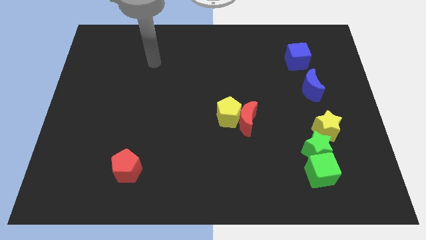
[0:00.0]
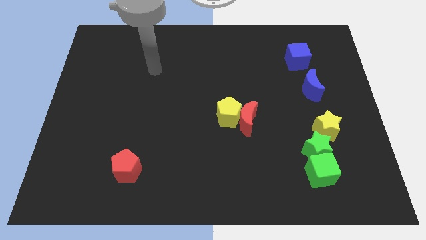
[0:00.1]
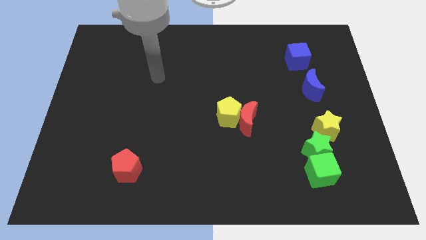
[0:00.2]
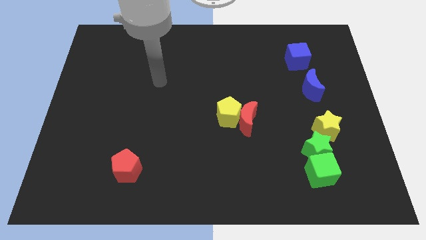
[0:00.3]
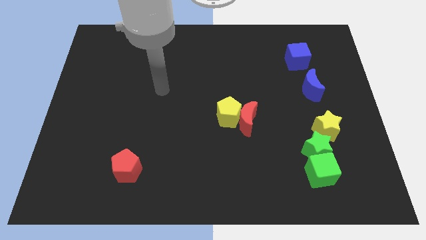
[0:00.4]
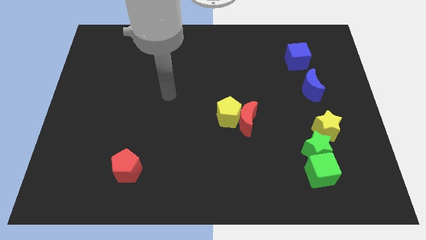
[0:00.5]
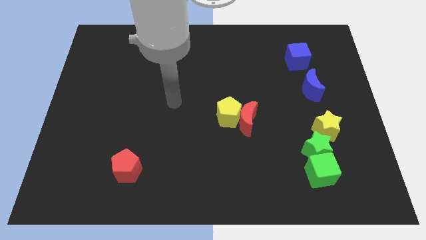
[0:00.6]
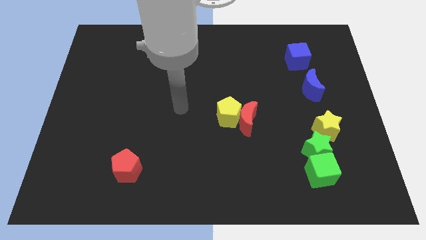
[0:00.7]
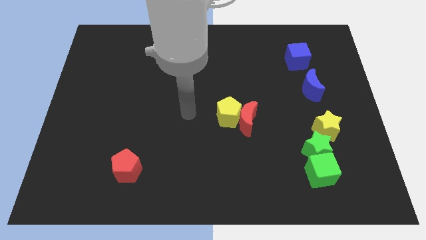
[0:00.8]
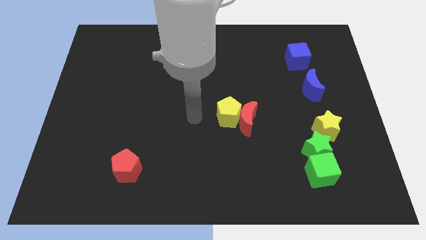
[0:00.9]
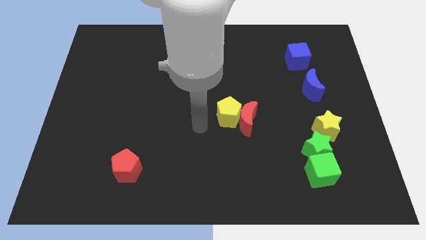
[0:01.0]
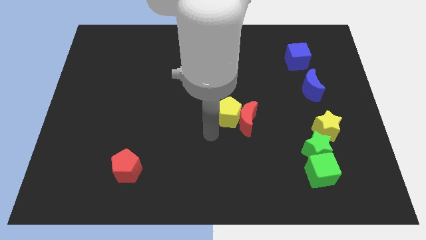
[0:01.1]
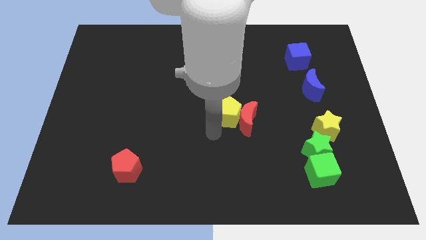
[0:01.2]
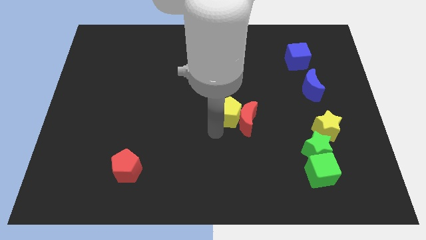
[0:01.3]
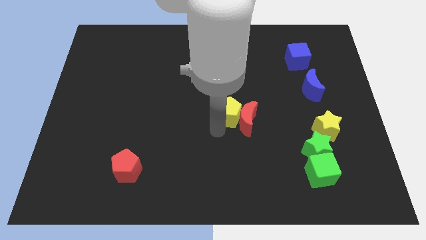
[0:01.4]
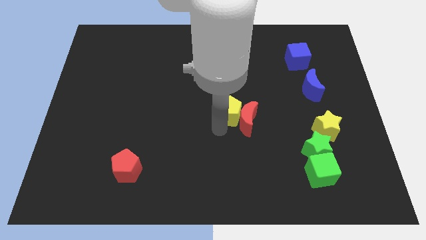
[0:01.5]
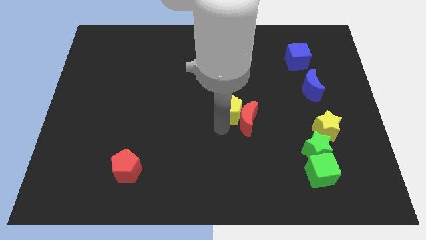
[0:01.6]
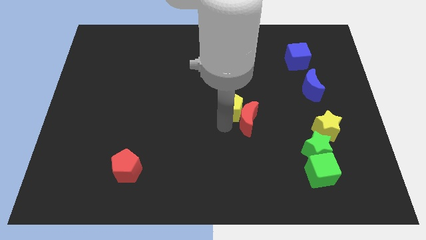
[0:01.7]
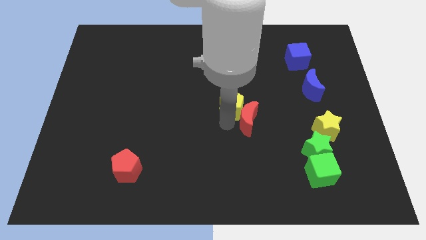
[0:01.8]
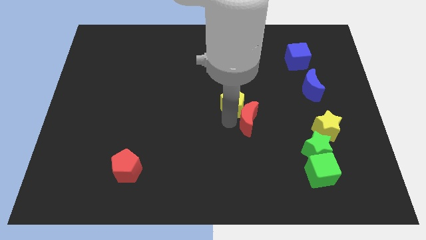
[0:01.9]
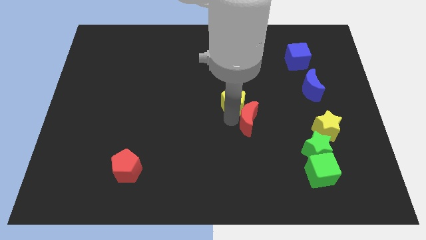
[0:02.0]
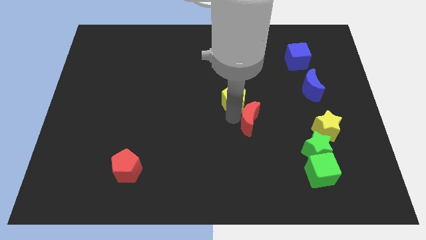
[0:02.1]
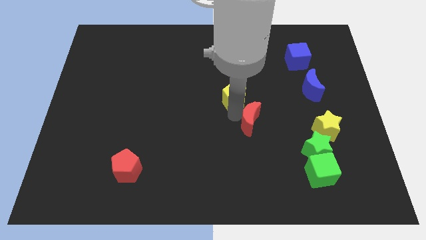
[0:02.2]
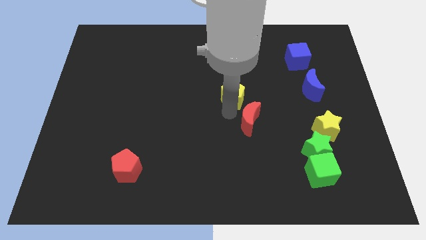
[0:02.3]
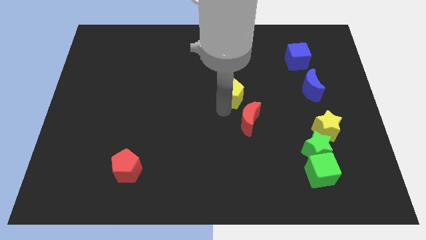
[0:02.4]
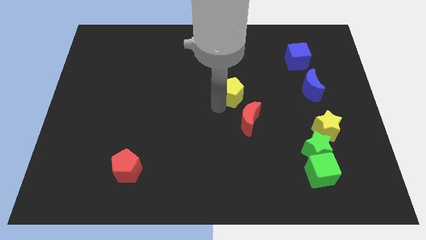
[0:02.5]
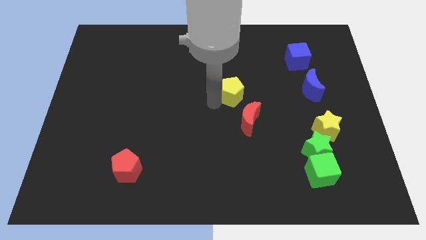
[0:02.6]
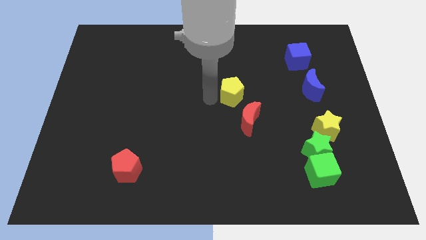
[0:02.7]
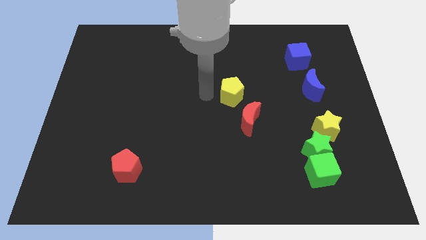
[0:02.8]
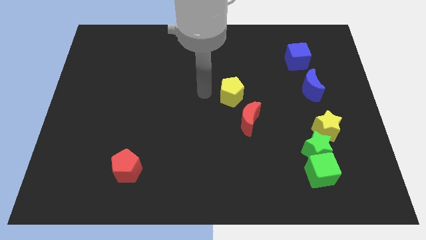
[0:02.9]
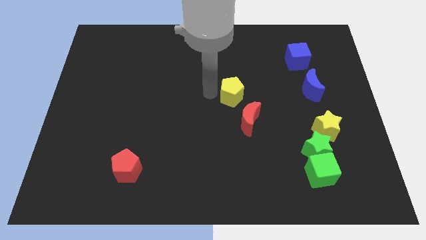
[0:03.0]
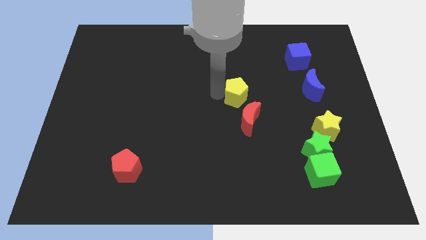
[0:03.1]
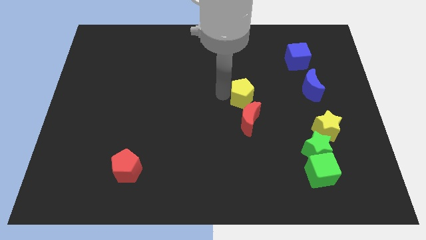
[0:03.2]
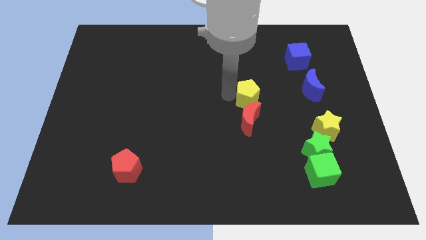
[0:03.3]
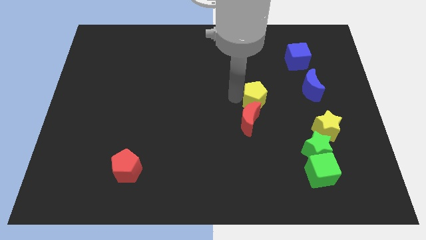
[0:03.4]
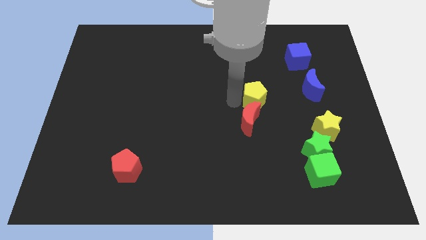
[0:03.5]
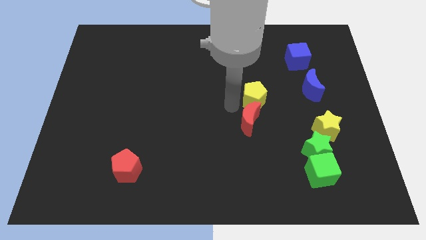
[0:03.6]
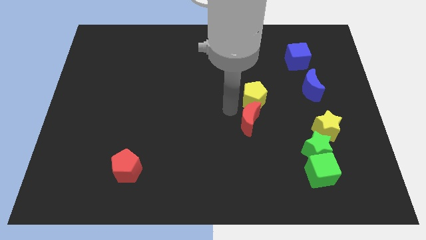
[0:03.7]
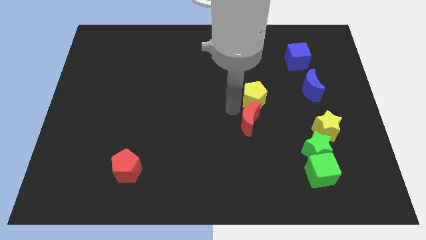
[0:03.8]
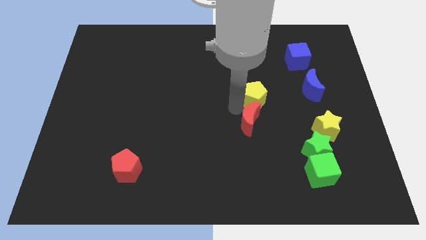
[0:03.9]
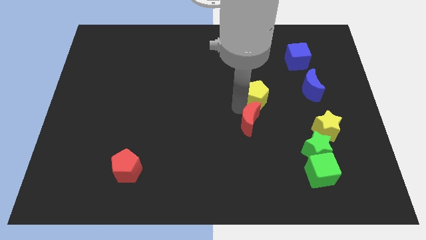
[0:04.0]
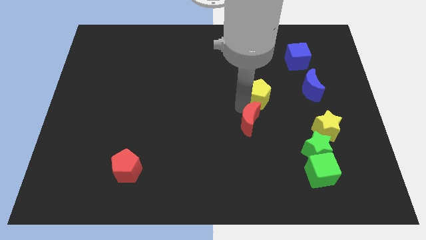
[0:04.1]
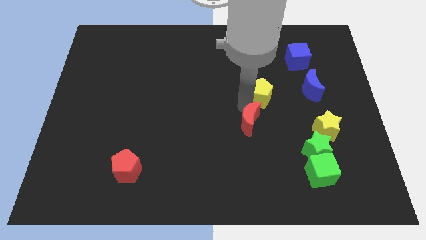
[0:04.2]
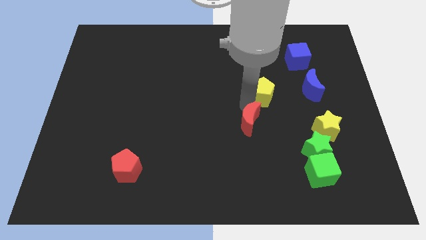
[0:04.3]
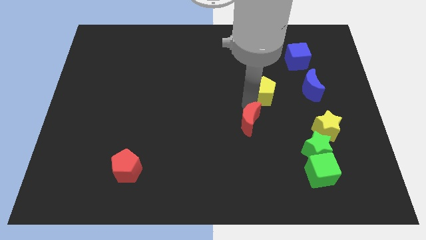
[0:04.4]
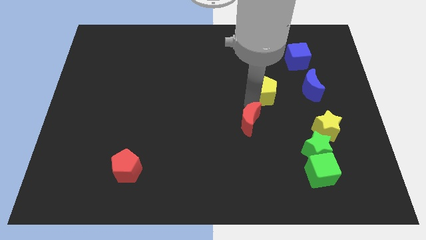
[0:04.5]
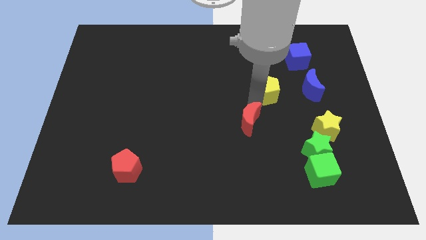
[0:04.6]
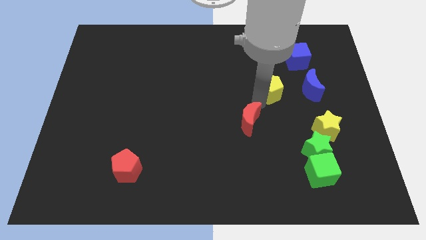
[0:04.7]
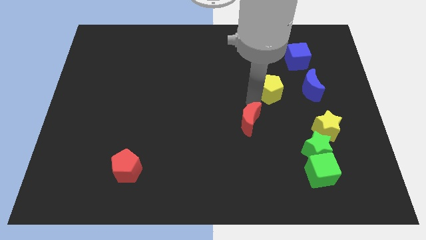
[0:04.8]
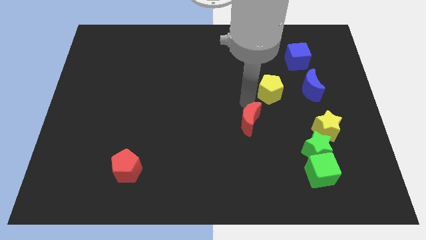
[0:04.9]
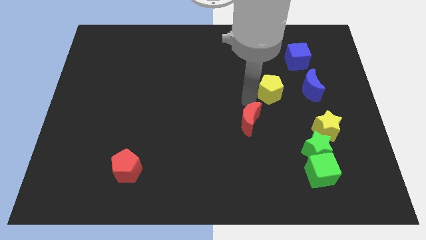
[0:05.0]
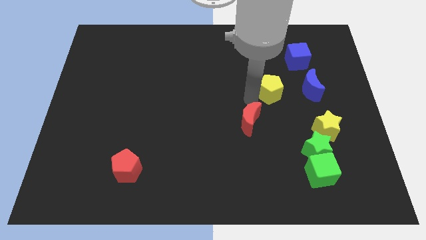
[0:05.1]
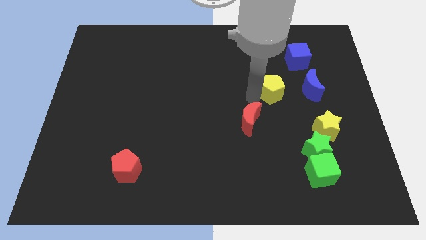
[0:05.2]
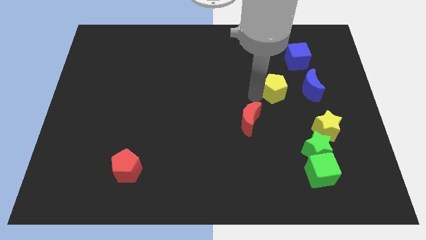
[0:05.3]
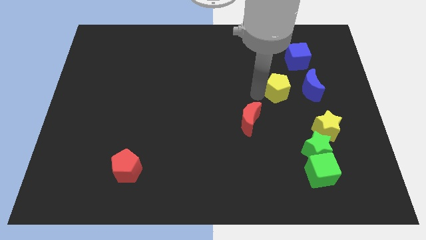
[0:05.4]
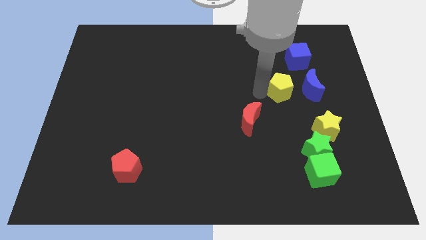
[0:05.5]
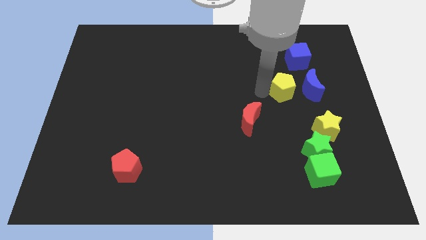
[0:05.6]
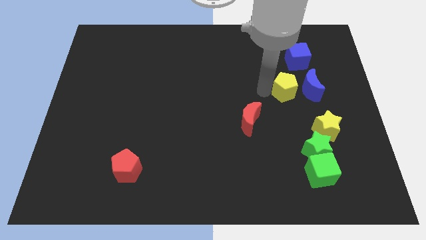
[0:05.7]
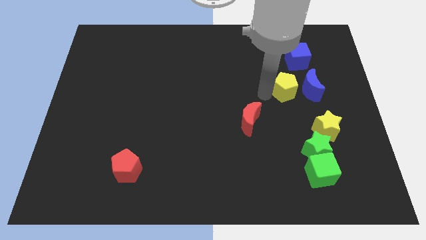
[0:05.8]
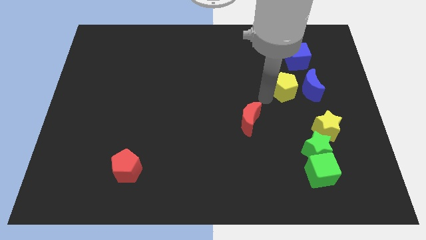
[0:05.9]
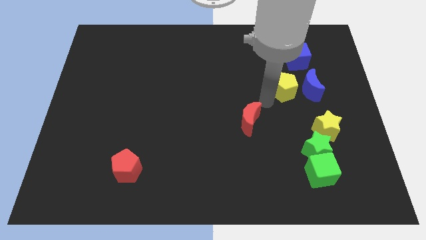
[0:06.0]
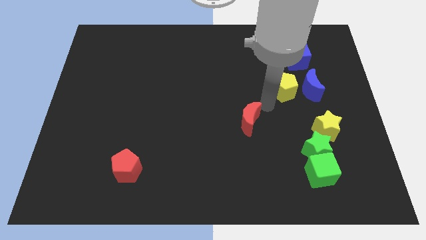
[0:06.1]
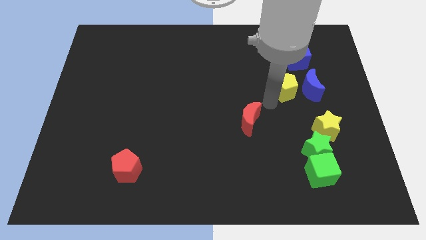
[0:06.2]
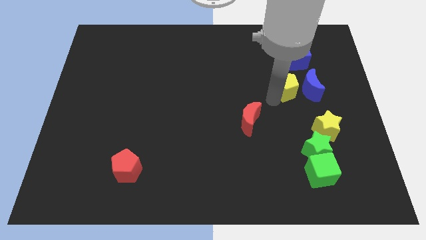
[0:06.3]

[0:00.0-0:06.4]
push the yellow pentagon close to the blue moon

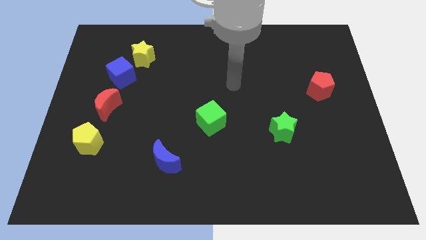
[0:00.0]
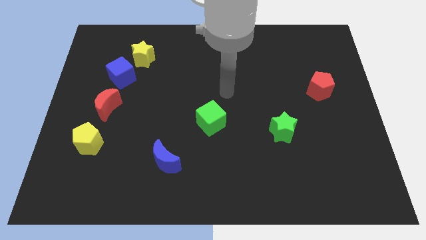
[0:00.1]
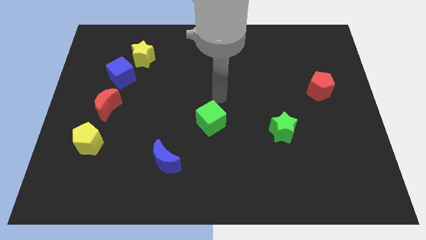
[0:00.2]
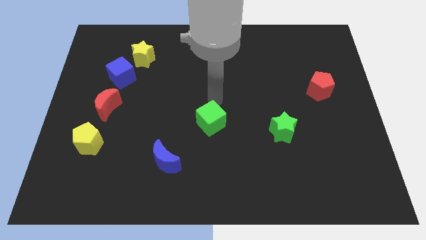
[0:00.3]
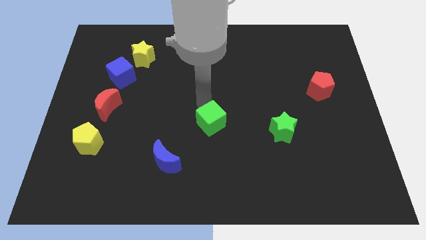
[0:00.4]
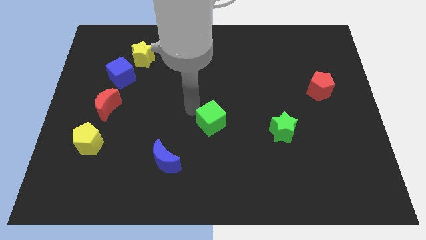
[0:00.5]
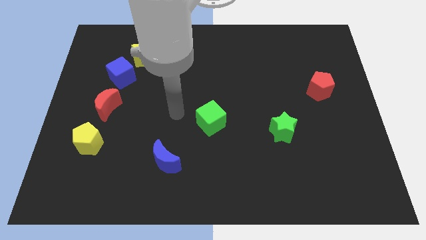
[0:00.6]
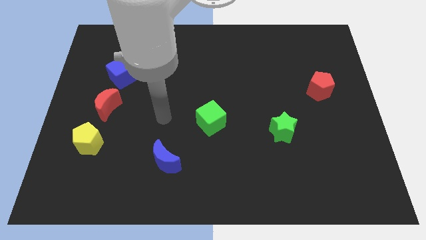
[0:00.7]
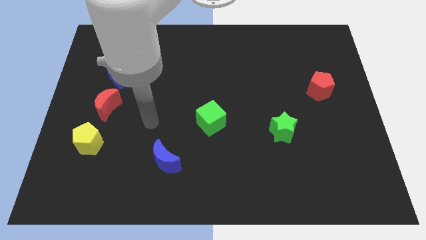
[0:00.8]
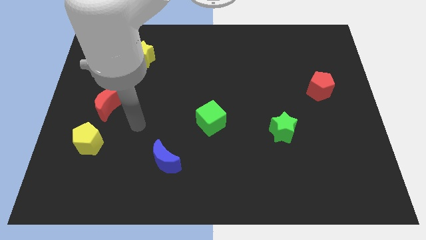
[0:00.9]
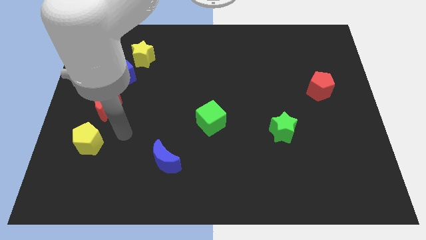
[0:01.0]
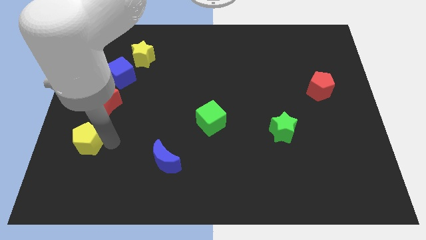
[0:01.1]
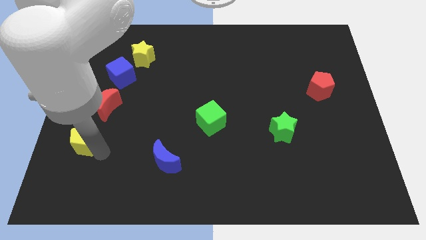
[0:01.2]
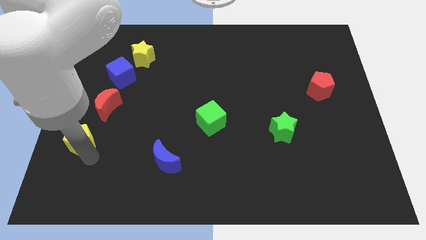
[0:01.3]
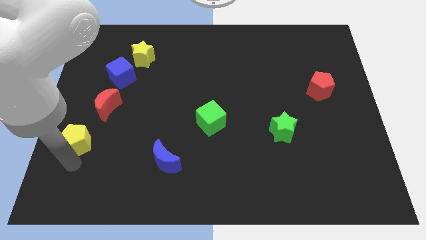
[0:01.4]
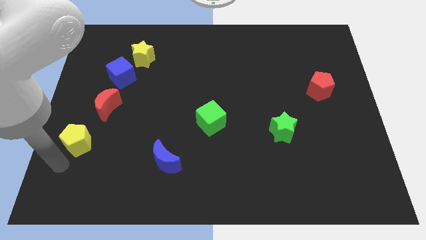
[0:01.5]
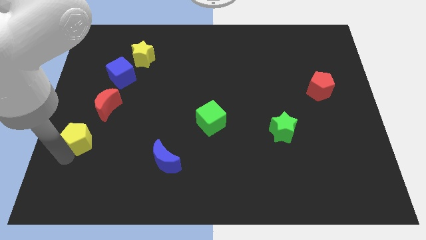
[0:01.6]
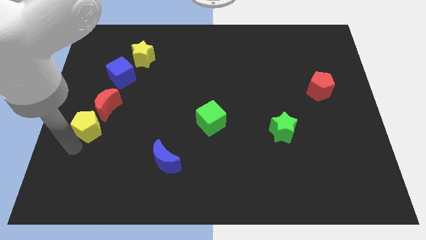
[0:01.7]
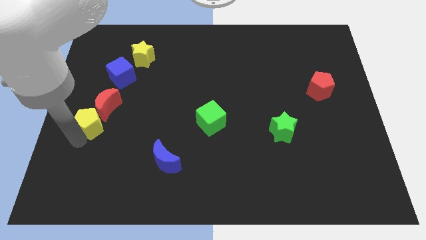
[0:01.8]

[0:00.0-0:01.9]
slide the yellow pentagon to the red moon
